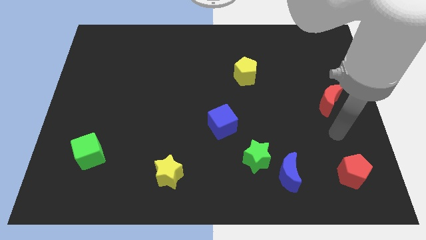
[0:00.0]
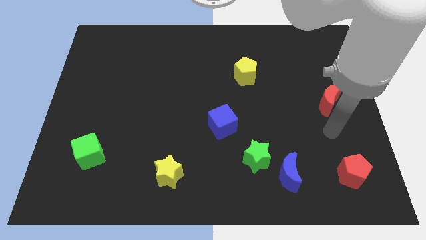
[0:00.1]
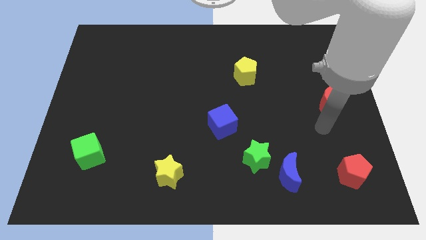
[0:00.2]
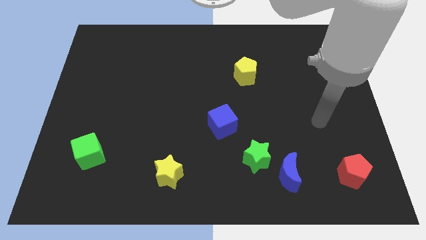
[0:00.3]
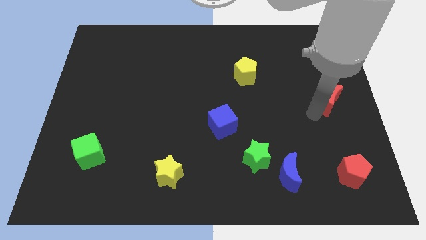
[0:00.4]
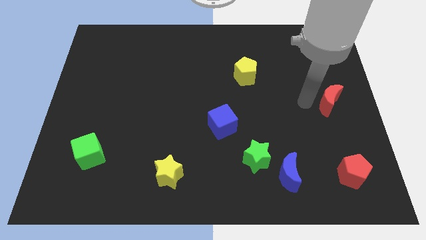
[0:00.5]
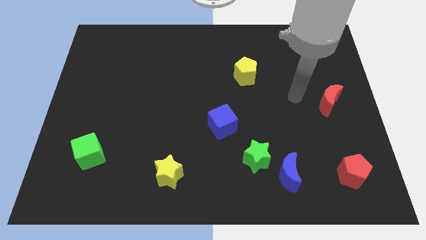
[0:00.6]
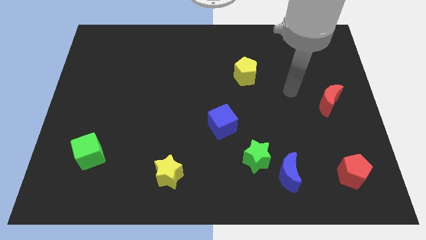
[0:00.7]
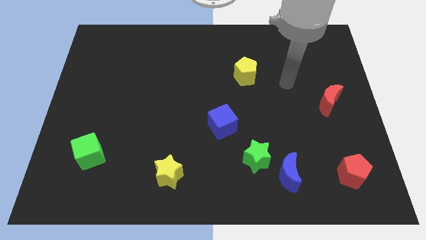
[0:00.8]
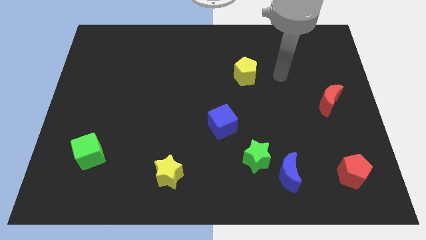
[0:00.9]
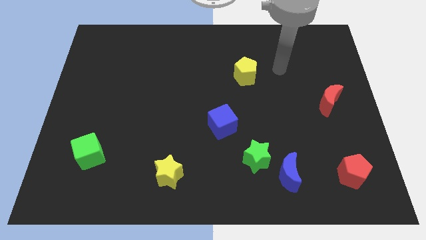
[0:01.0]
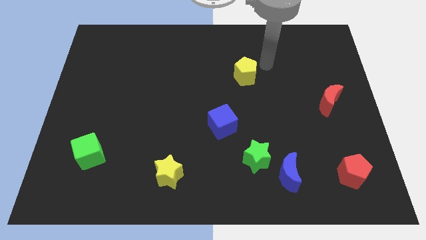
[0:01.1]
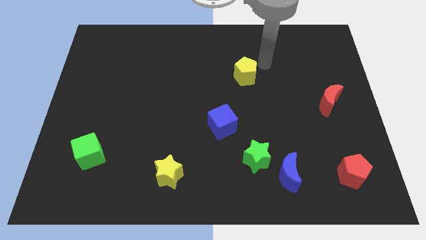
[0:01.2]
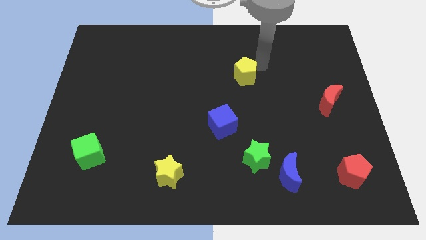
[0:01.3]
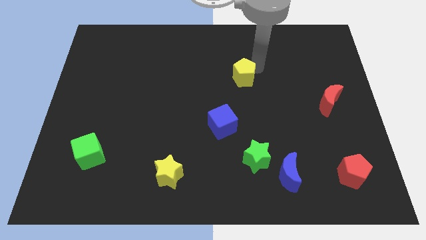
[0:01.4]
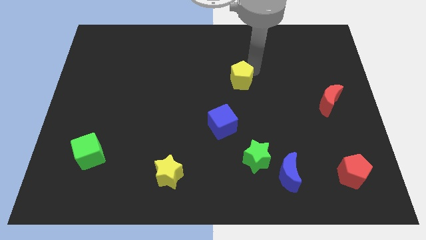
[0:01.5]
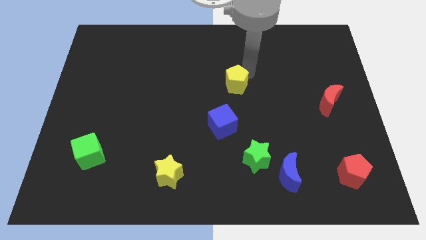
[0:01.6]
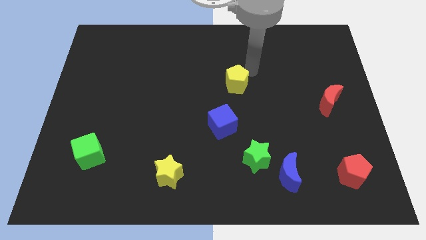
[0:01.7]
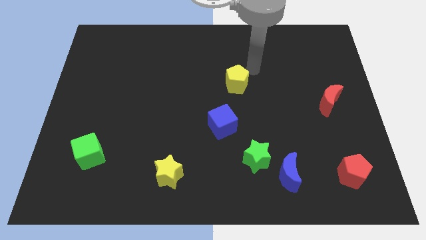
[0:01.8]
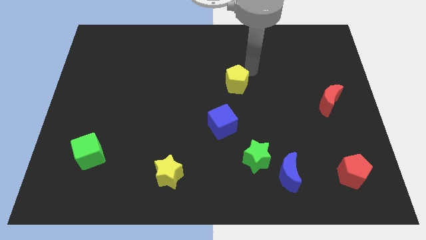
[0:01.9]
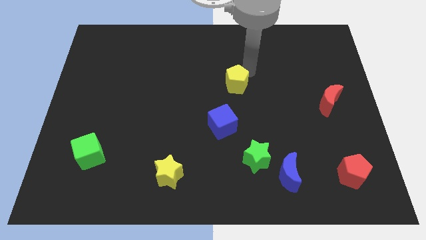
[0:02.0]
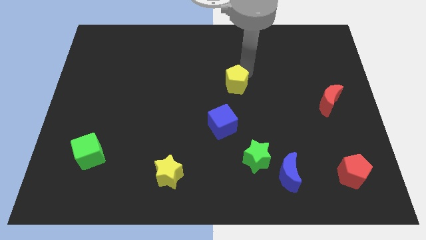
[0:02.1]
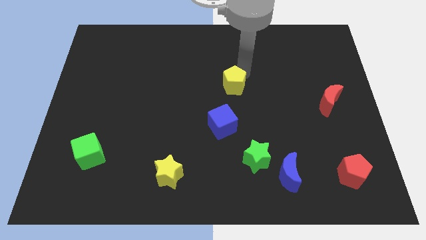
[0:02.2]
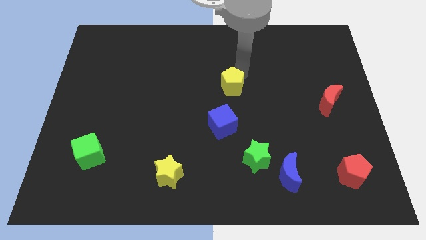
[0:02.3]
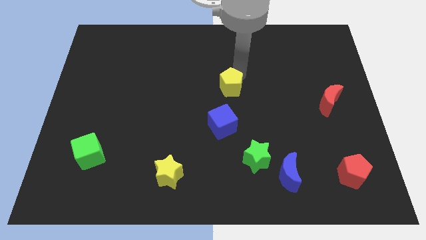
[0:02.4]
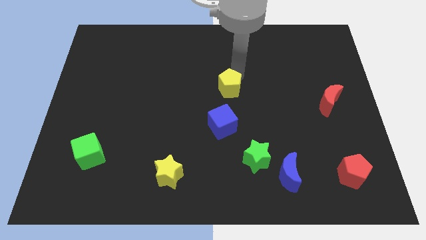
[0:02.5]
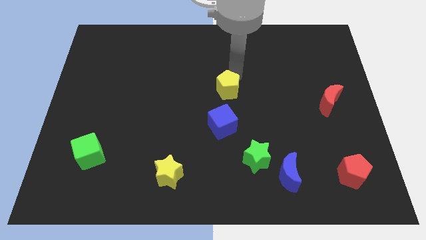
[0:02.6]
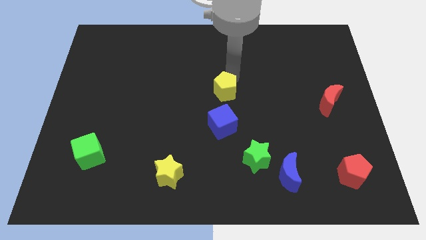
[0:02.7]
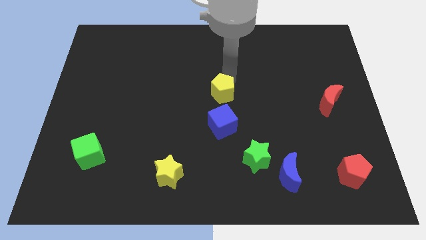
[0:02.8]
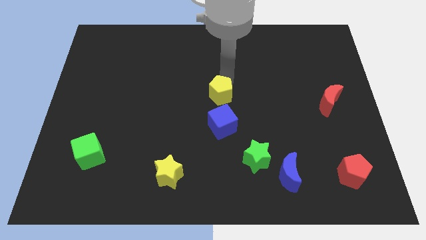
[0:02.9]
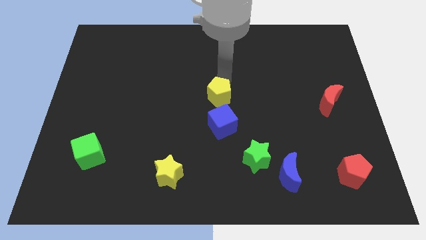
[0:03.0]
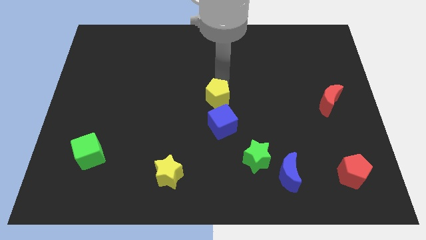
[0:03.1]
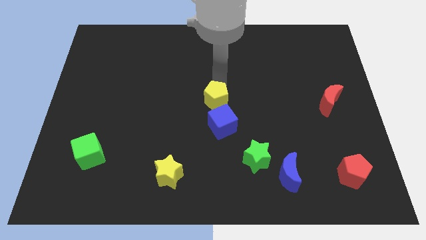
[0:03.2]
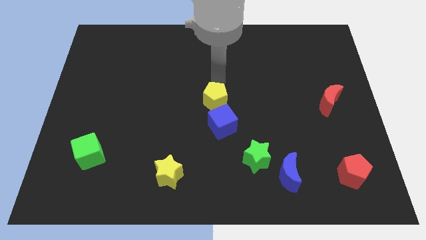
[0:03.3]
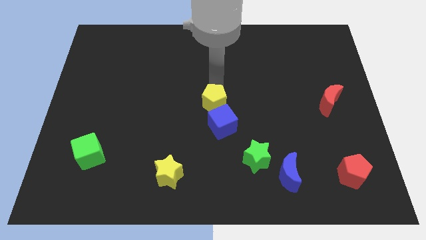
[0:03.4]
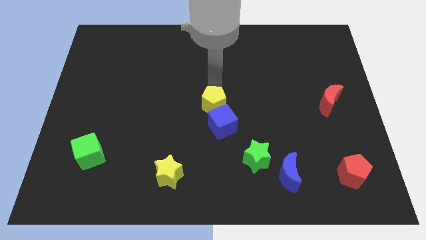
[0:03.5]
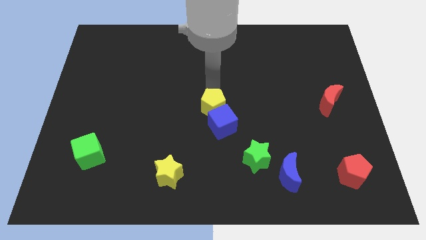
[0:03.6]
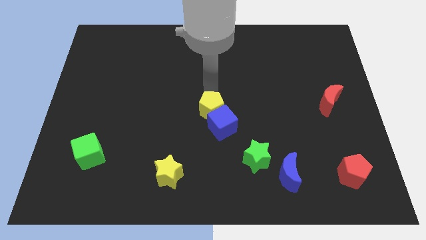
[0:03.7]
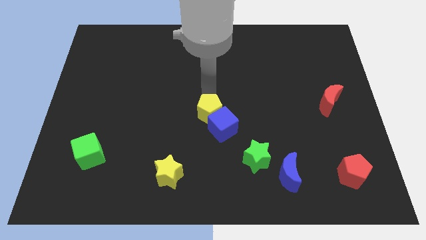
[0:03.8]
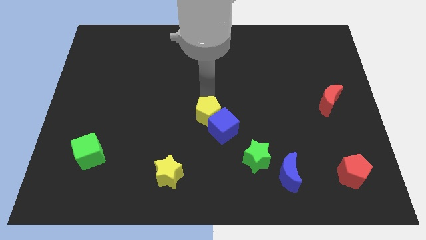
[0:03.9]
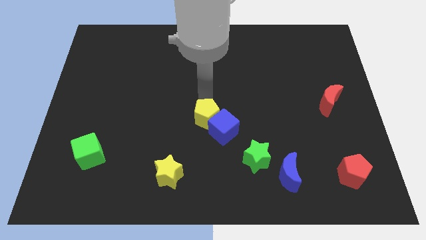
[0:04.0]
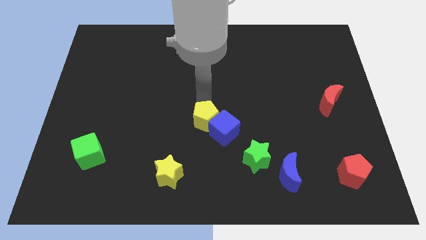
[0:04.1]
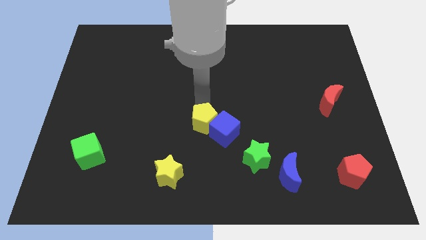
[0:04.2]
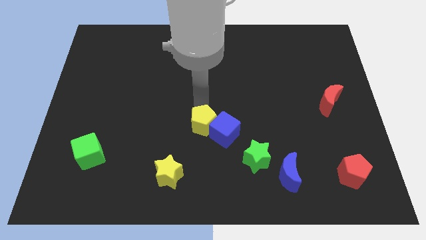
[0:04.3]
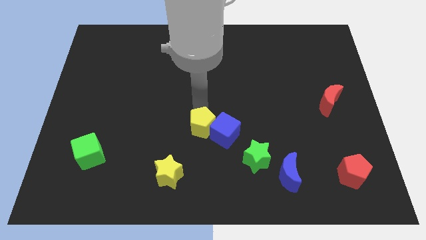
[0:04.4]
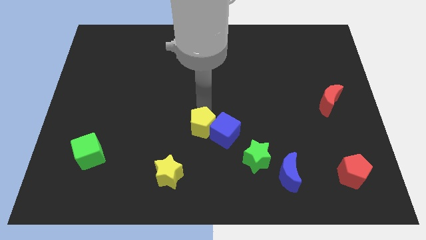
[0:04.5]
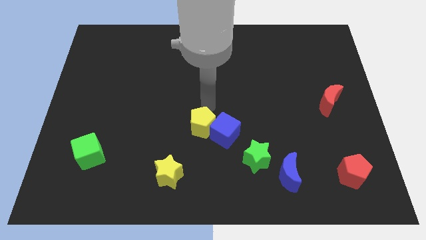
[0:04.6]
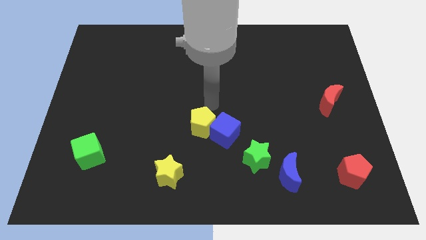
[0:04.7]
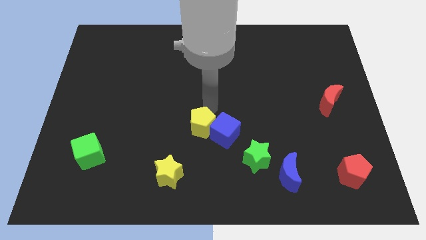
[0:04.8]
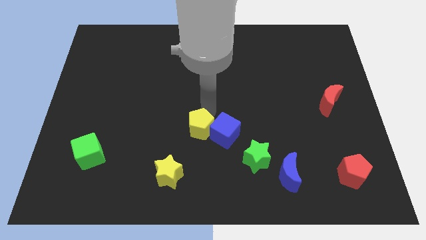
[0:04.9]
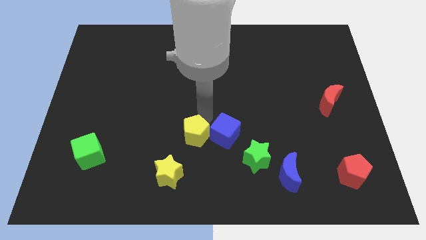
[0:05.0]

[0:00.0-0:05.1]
slide the yellow pentagon diagonally up and to the right of the yellow star

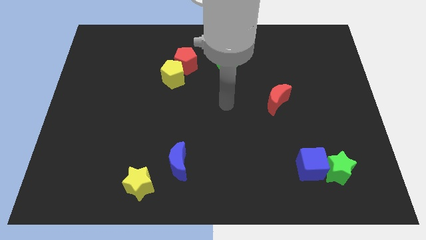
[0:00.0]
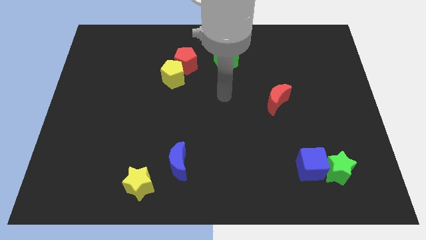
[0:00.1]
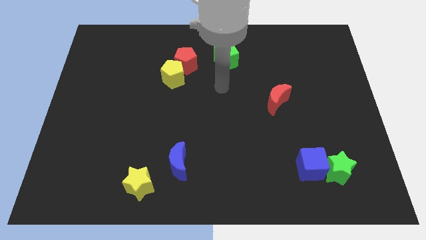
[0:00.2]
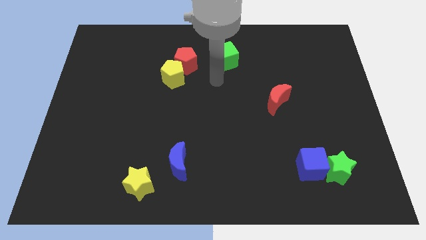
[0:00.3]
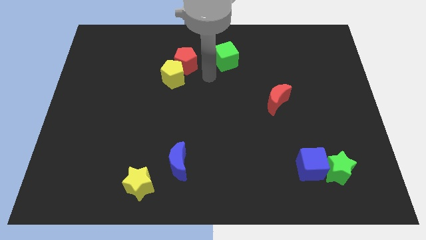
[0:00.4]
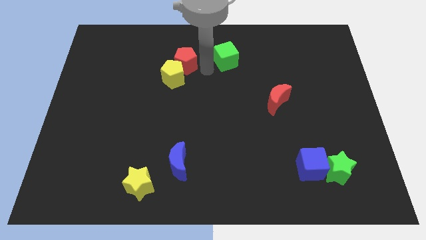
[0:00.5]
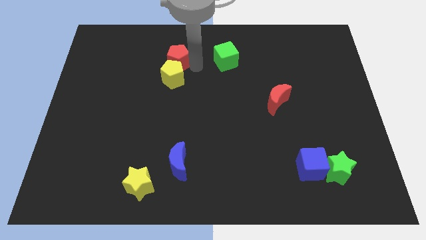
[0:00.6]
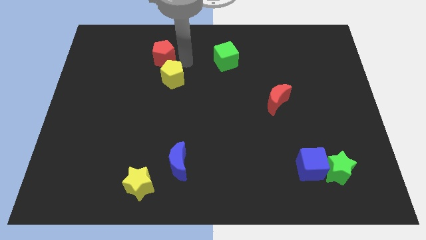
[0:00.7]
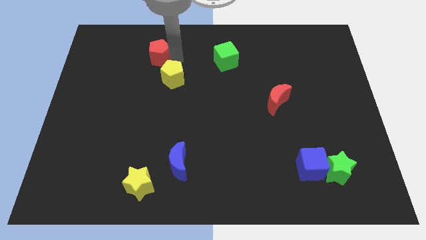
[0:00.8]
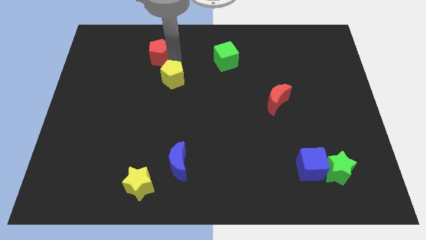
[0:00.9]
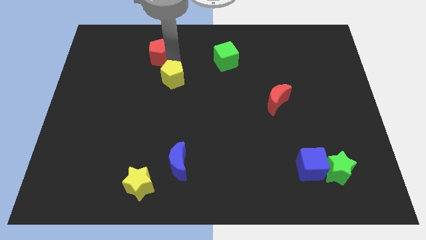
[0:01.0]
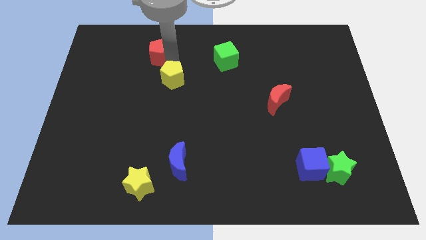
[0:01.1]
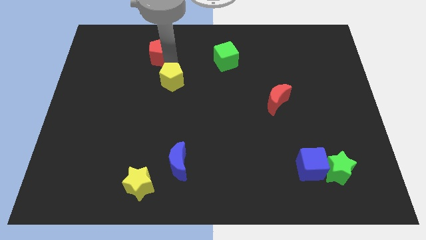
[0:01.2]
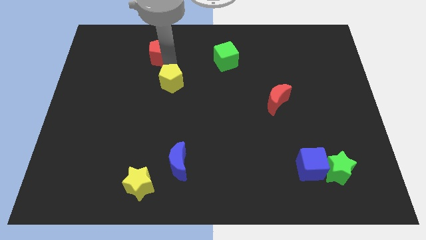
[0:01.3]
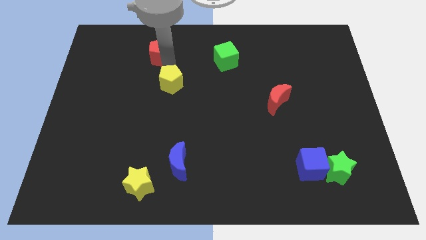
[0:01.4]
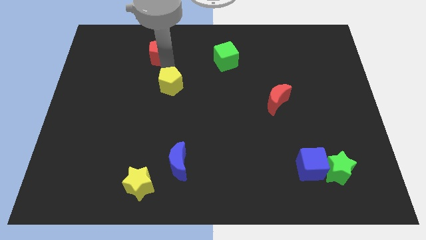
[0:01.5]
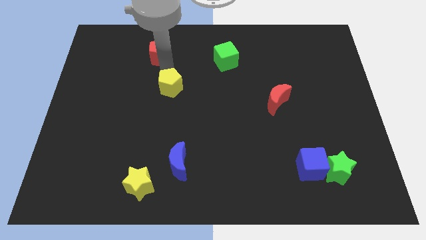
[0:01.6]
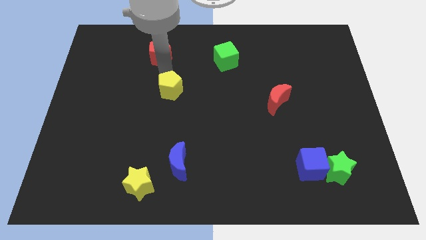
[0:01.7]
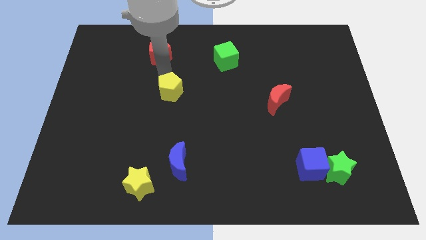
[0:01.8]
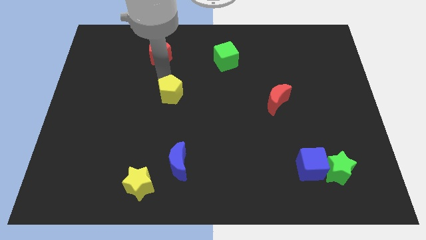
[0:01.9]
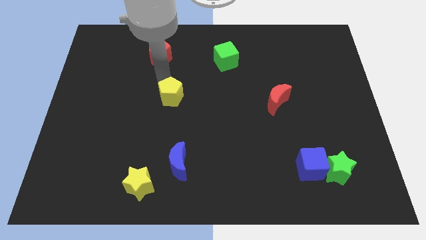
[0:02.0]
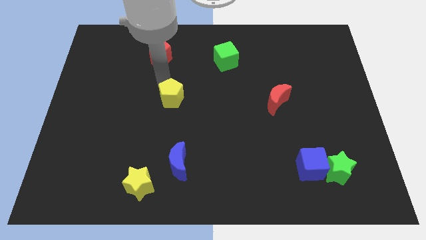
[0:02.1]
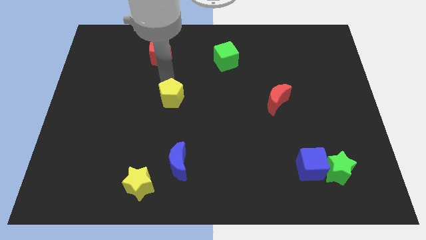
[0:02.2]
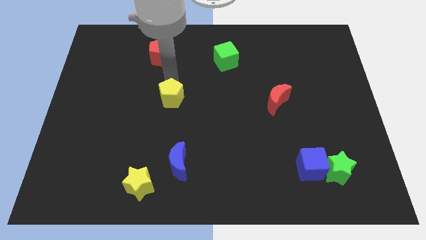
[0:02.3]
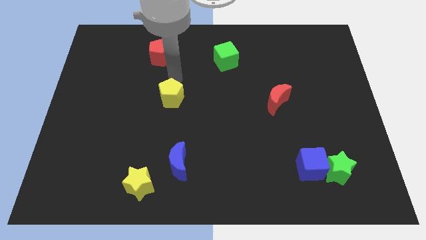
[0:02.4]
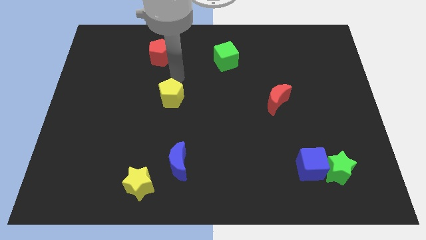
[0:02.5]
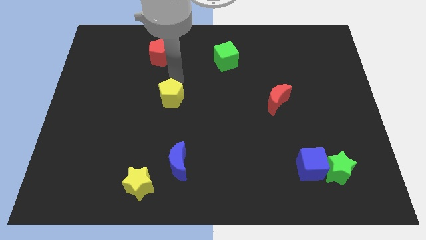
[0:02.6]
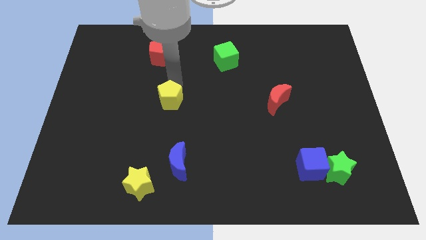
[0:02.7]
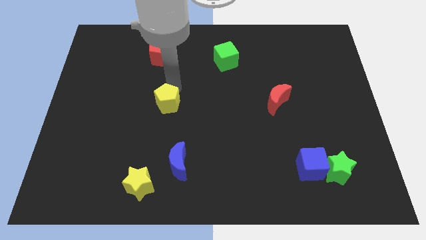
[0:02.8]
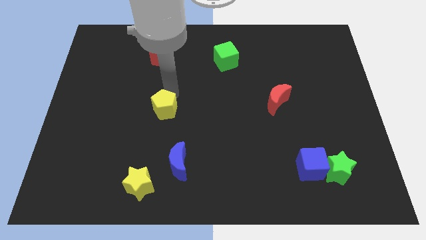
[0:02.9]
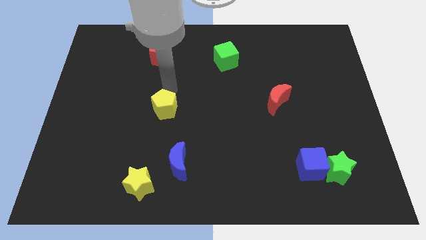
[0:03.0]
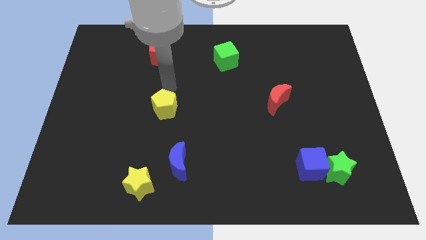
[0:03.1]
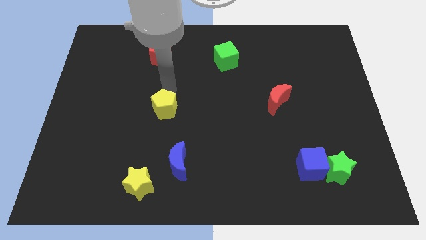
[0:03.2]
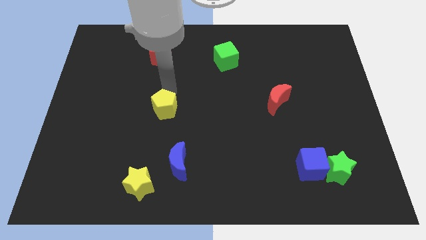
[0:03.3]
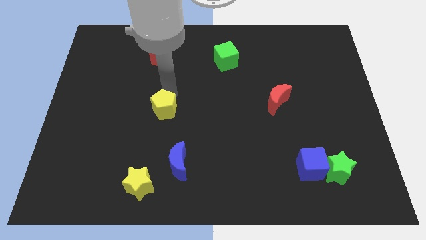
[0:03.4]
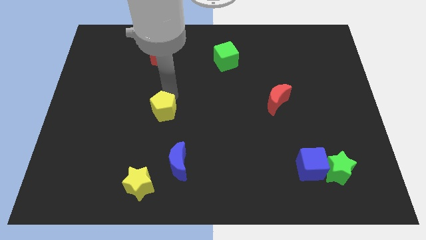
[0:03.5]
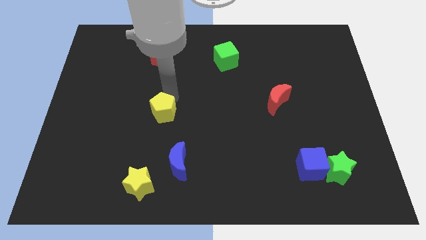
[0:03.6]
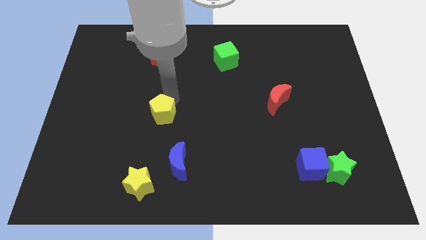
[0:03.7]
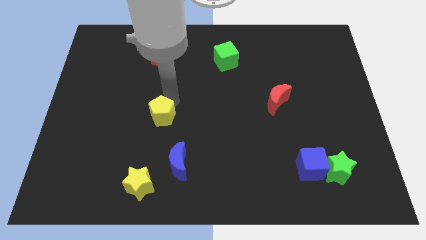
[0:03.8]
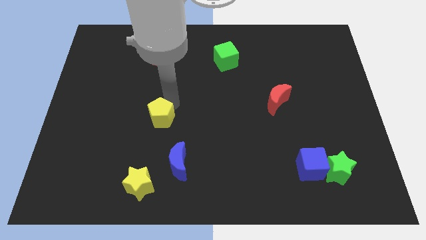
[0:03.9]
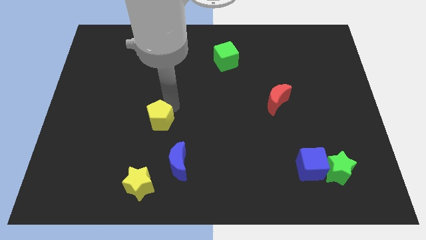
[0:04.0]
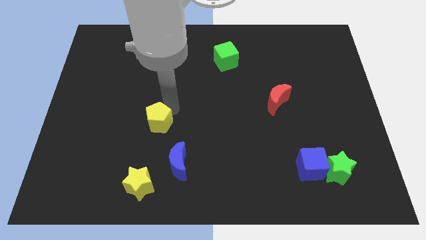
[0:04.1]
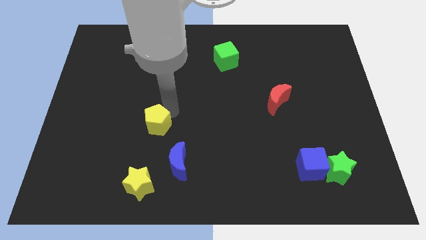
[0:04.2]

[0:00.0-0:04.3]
push the yellow pentagon to the top left of the blue moon
